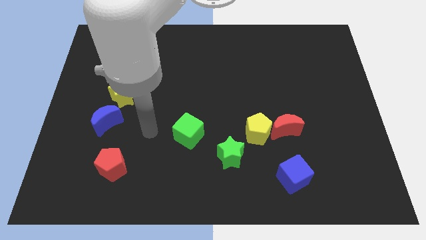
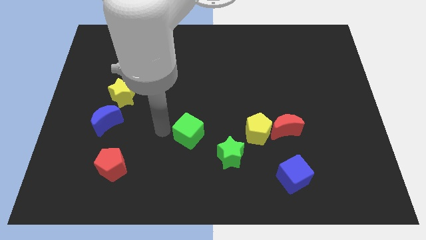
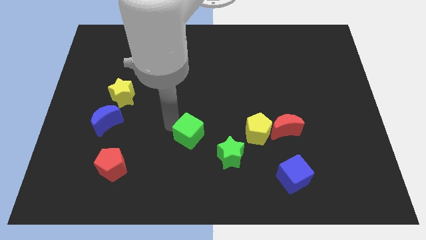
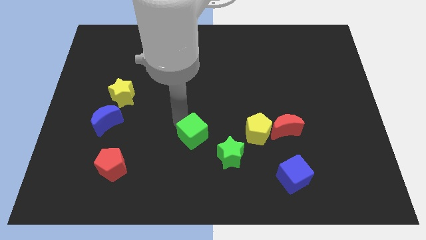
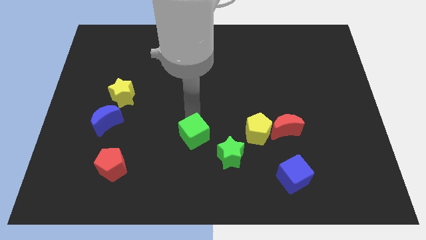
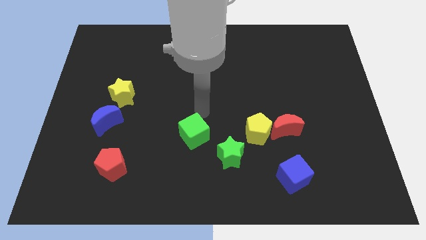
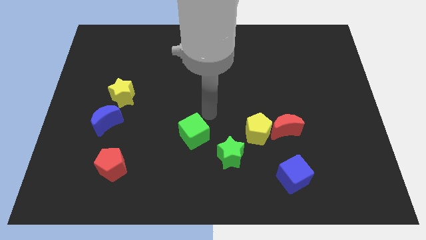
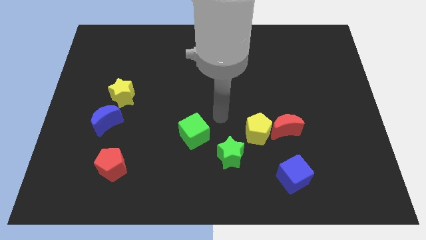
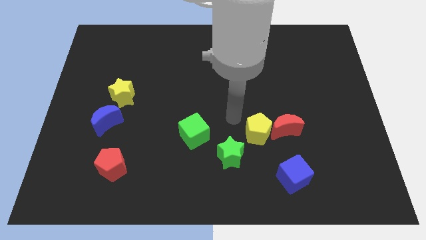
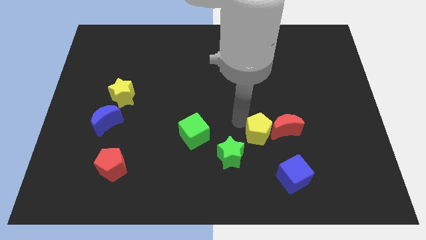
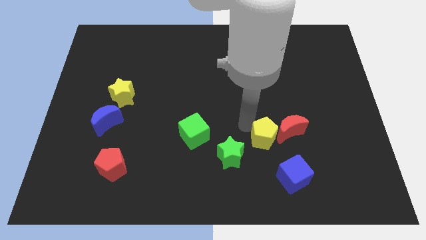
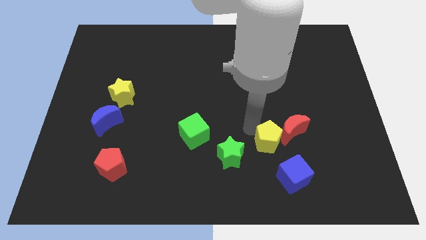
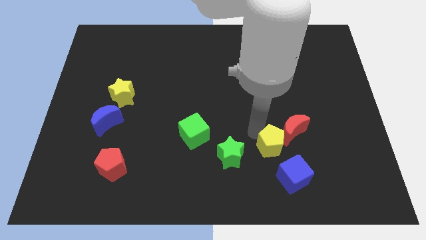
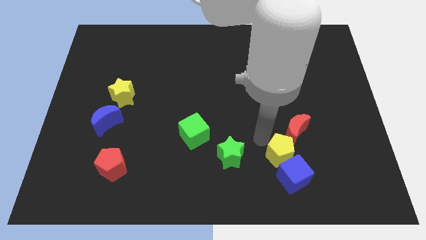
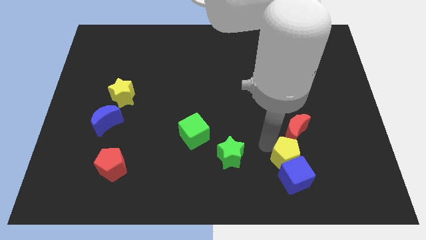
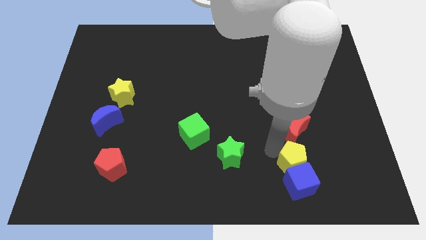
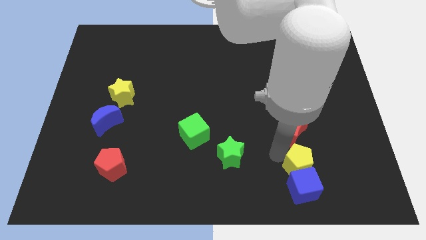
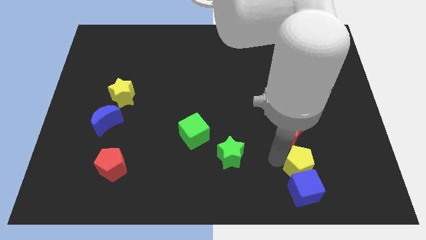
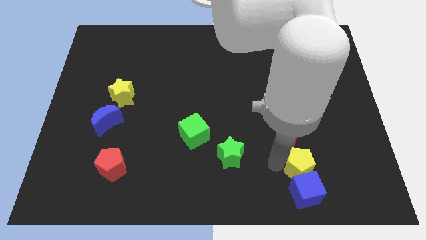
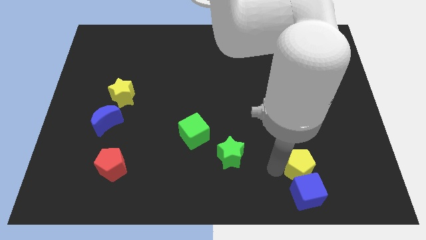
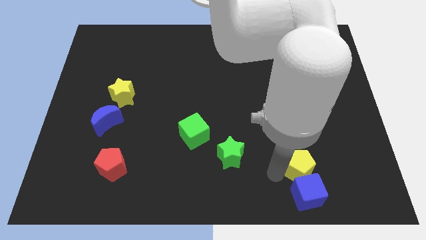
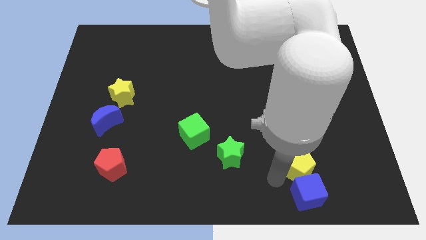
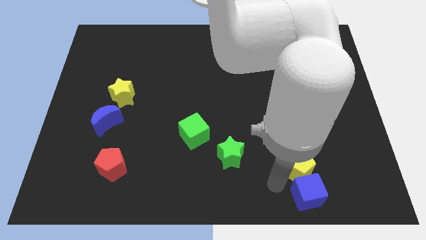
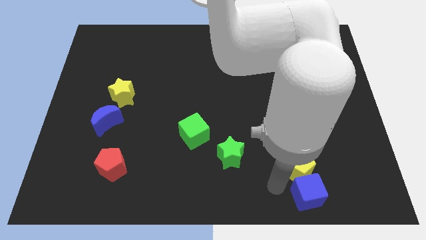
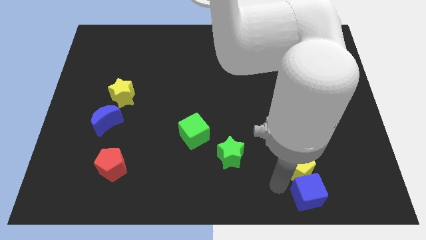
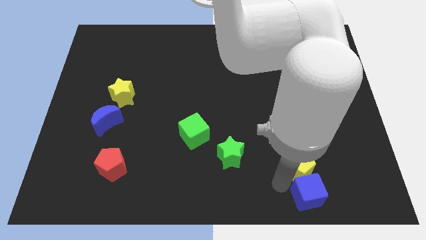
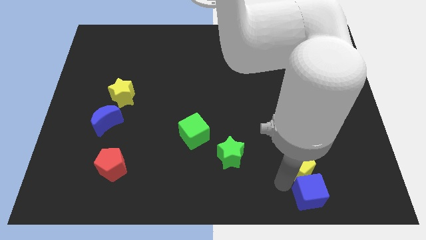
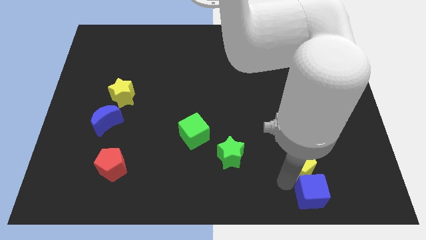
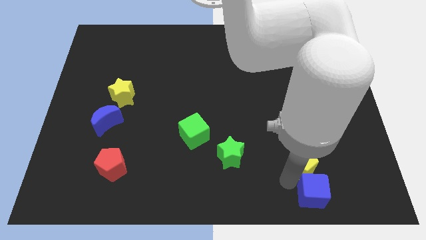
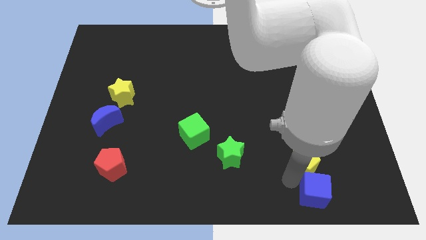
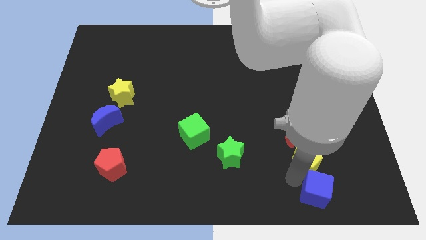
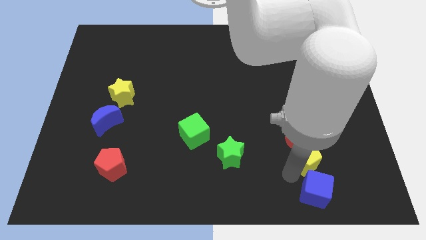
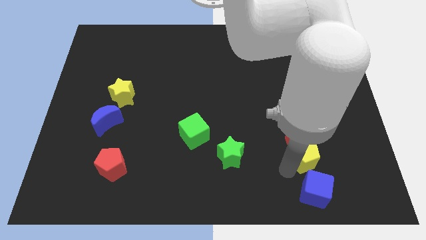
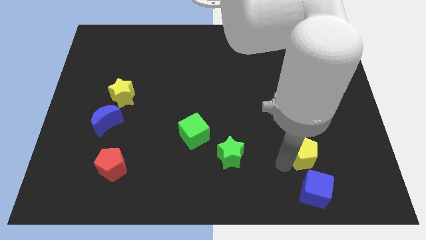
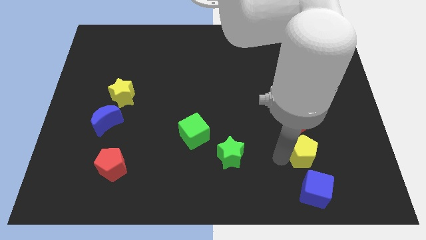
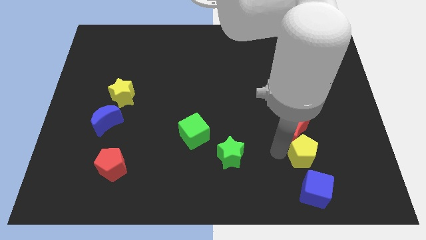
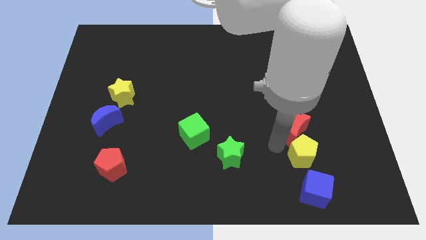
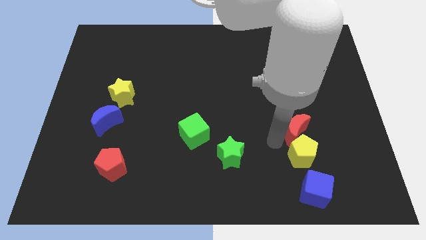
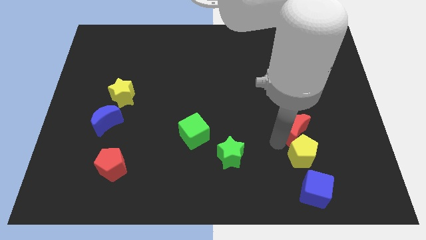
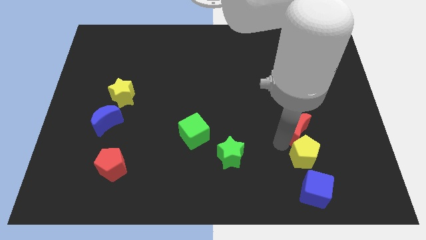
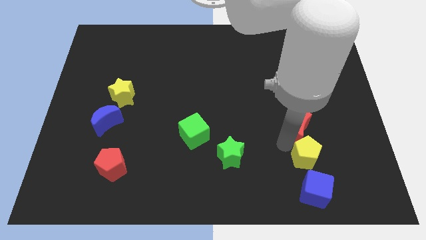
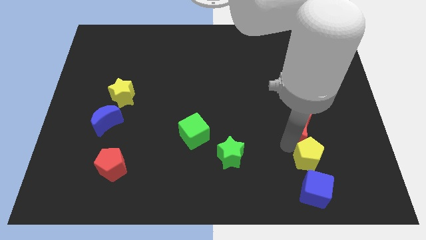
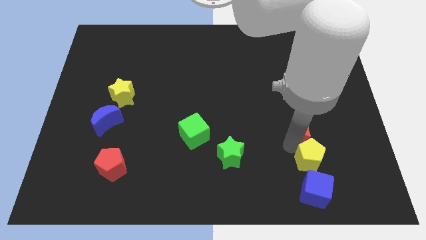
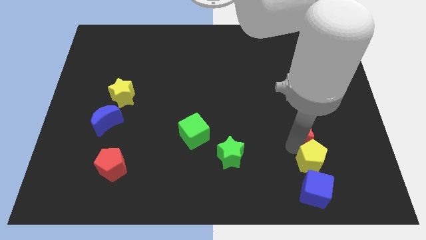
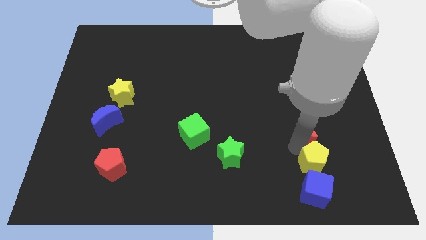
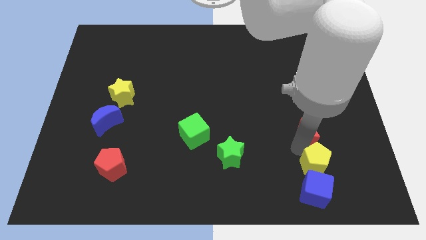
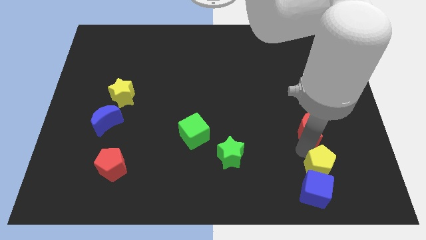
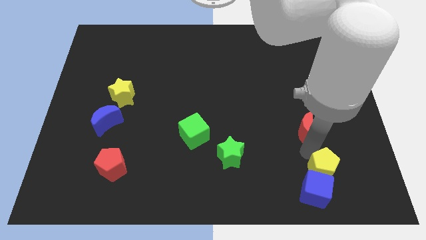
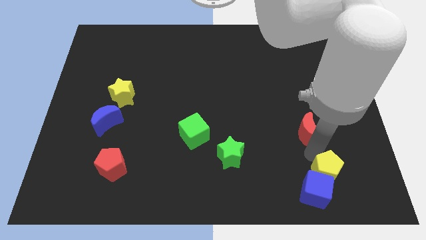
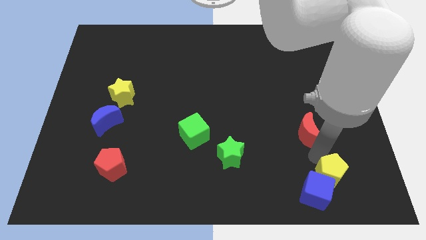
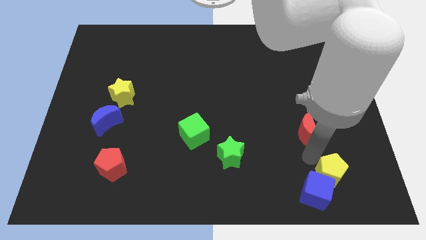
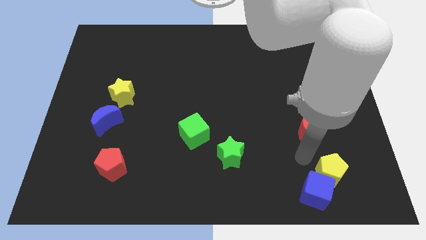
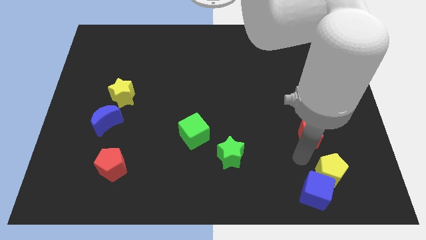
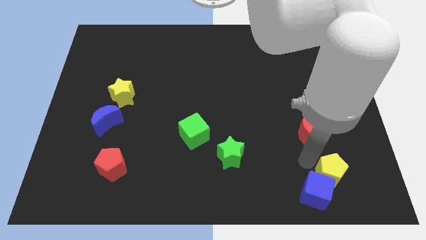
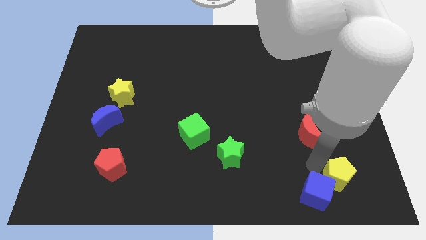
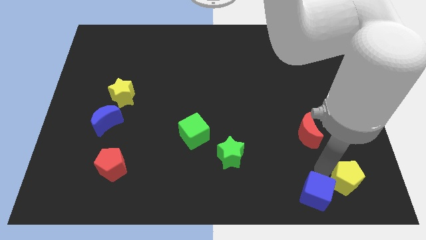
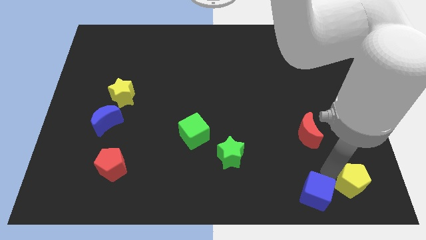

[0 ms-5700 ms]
push the yellow pentagon to the bottom right of the board

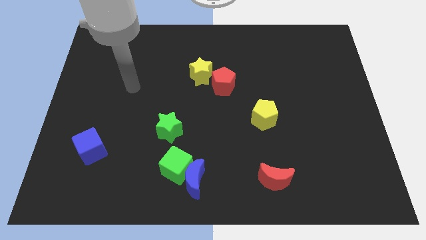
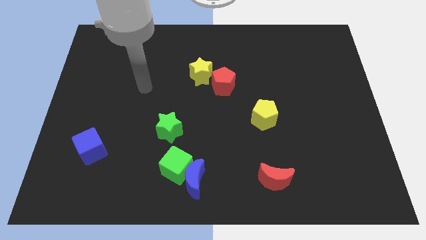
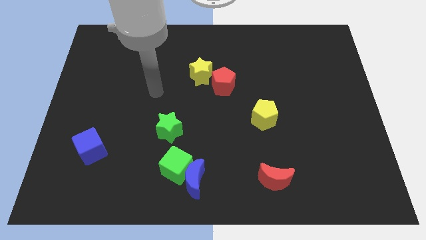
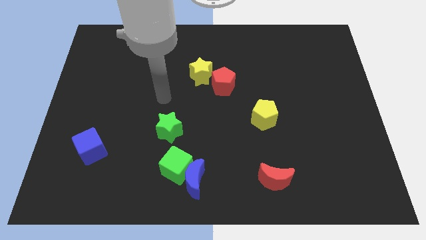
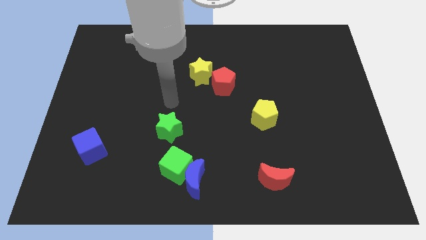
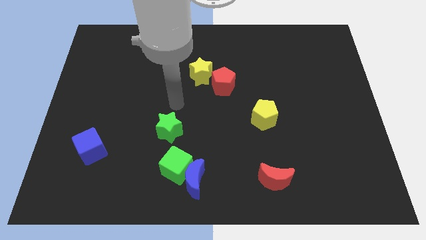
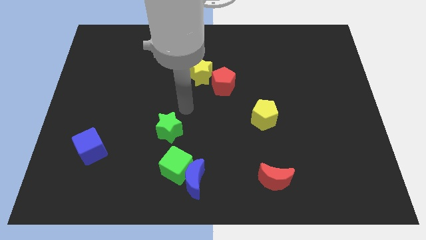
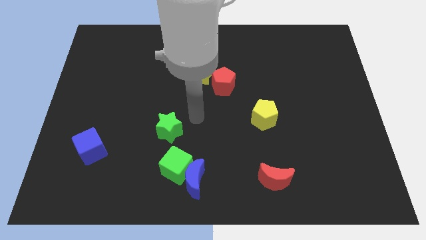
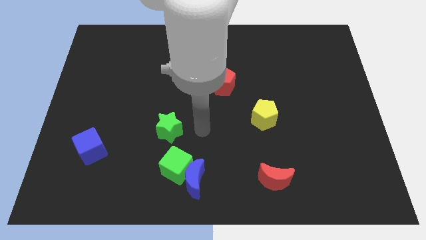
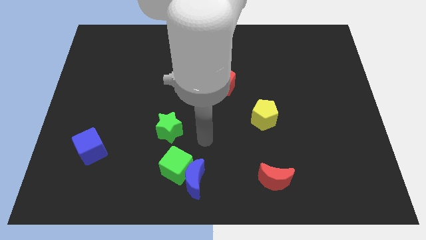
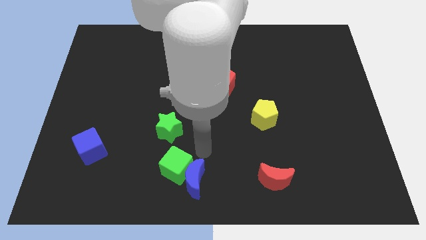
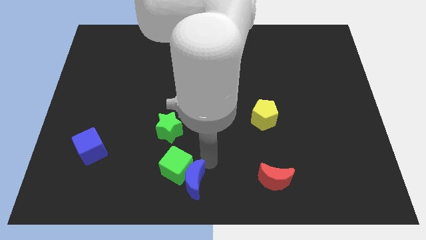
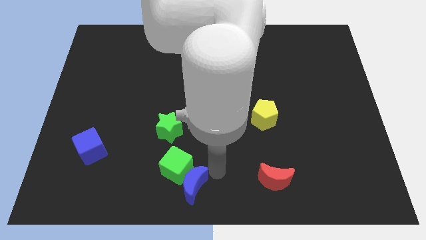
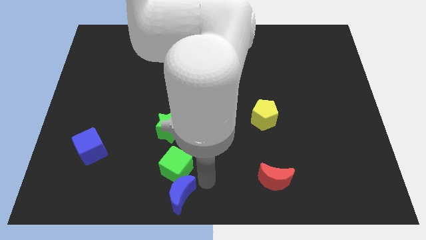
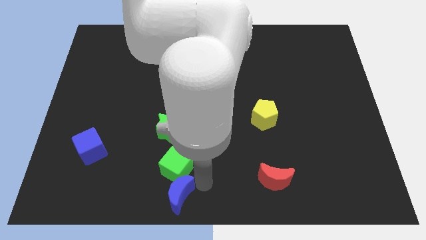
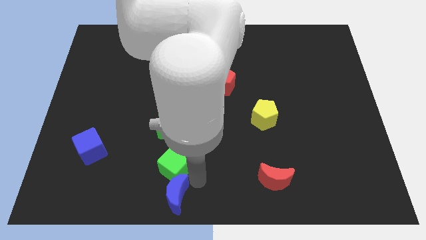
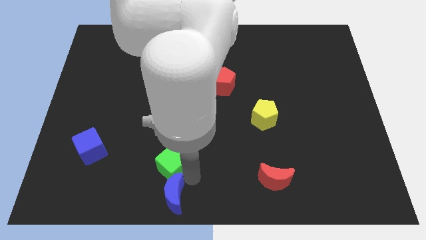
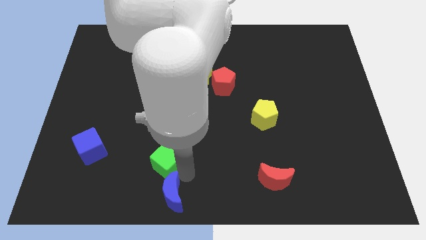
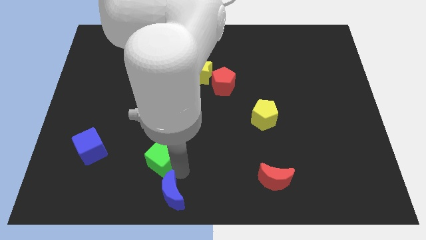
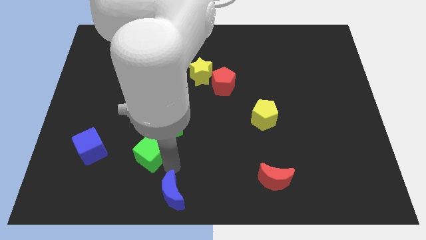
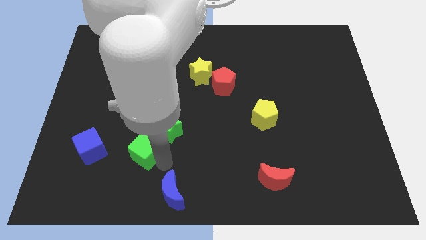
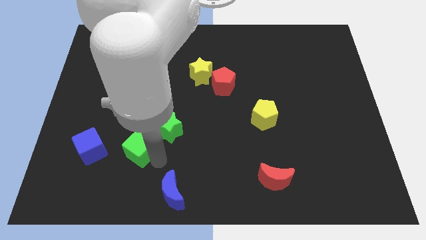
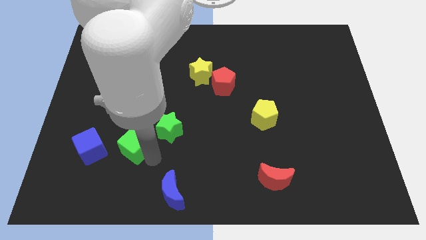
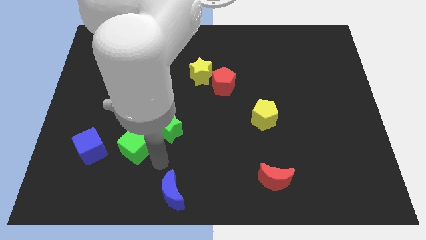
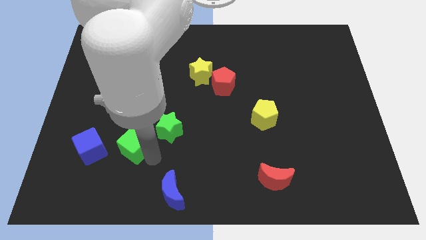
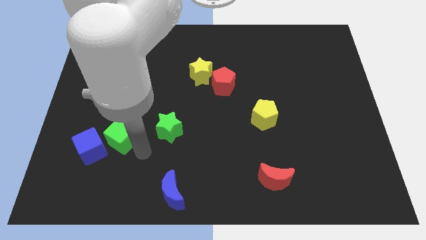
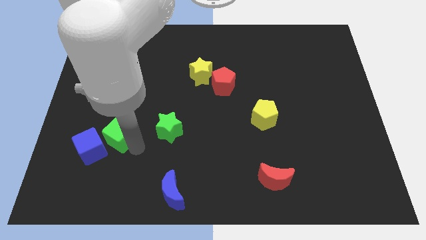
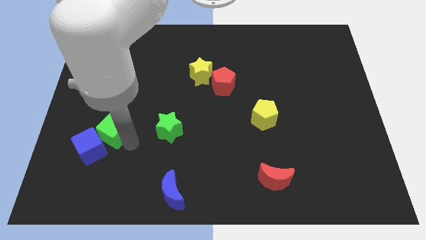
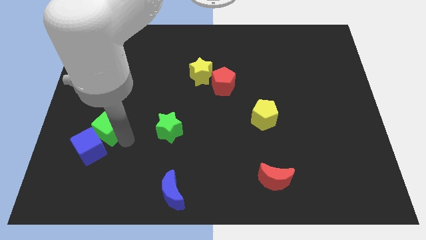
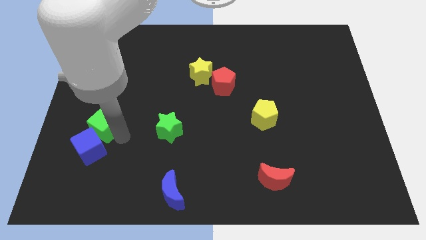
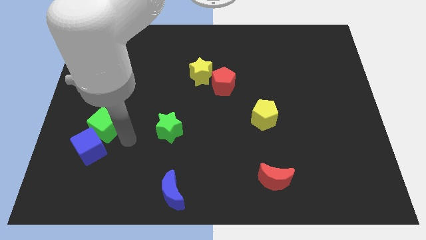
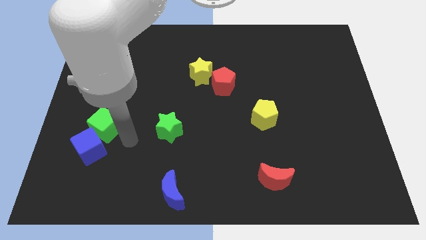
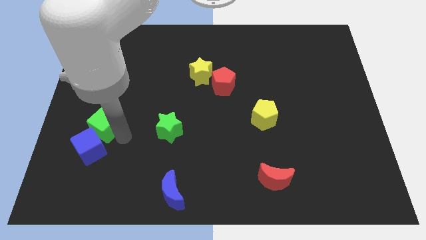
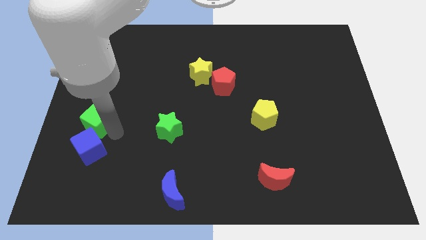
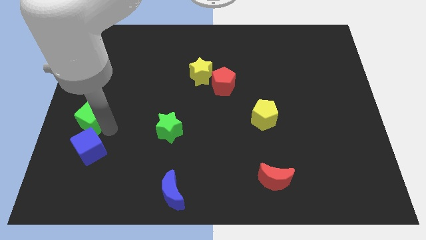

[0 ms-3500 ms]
put the green cube to the left side of the board
